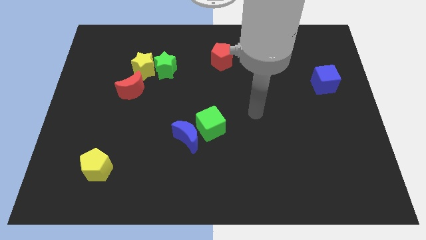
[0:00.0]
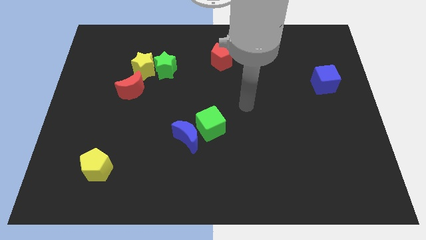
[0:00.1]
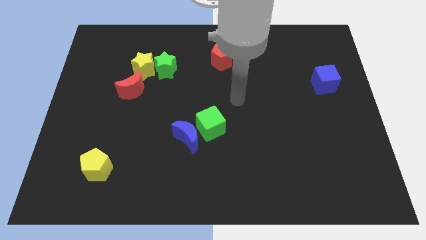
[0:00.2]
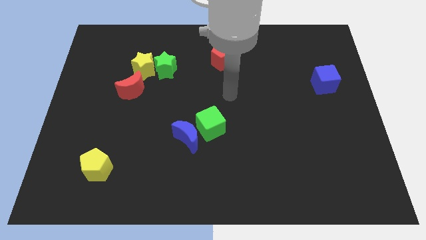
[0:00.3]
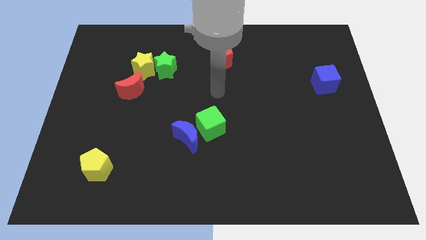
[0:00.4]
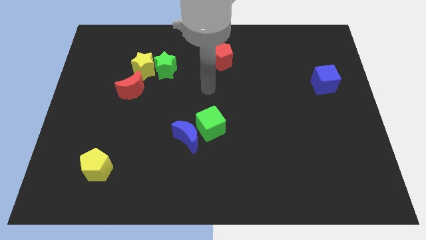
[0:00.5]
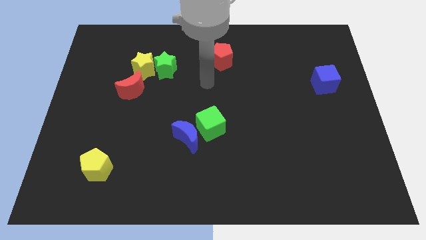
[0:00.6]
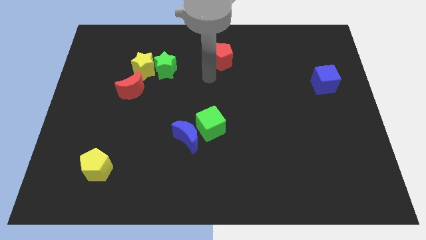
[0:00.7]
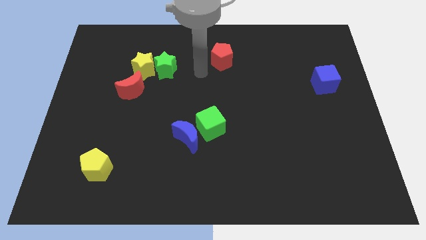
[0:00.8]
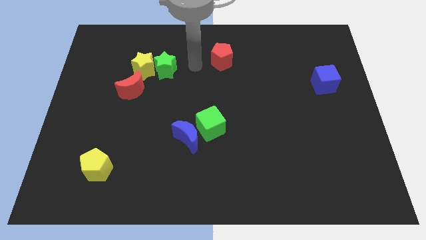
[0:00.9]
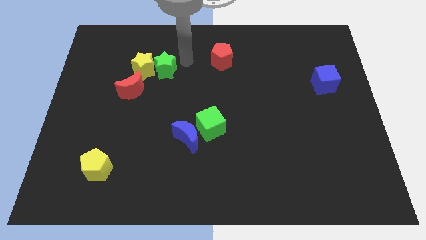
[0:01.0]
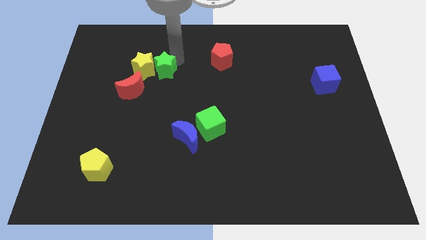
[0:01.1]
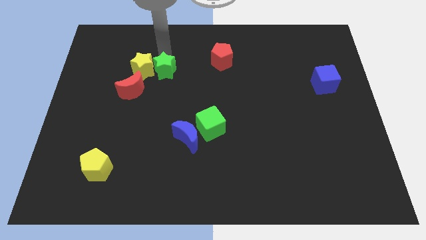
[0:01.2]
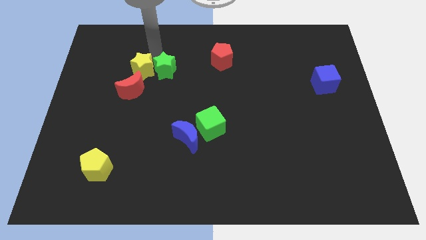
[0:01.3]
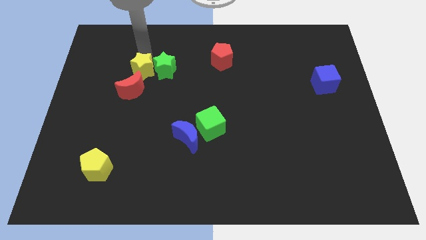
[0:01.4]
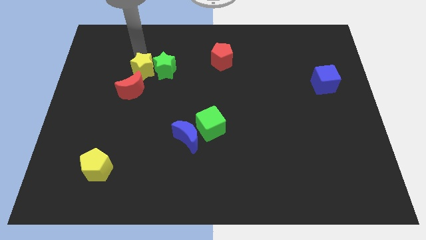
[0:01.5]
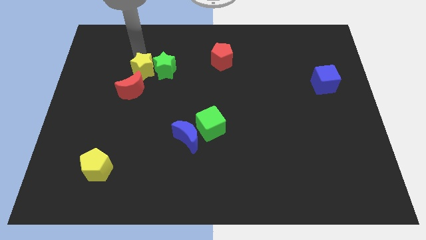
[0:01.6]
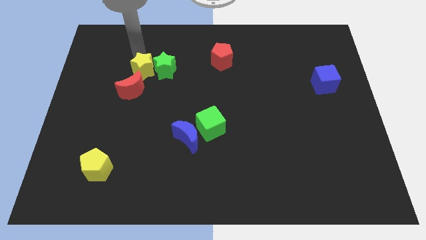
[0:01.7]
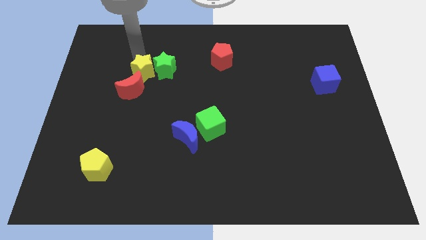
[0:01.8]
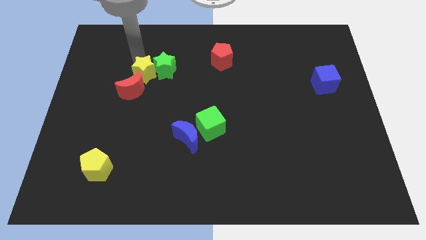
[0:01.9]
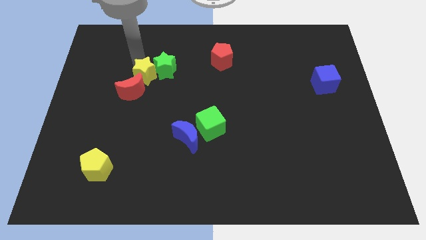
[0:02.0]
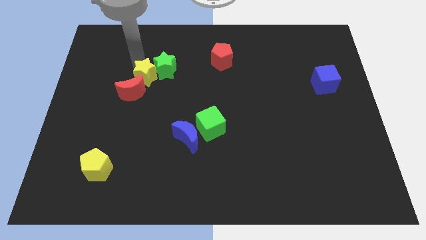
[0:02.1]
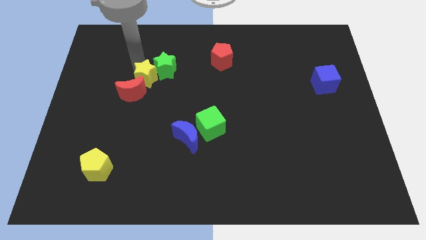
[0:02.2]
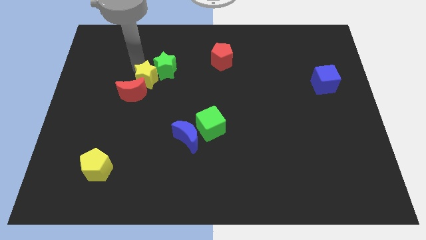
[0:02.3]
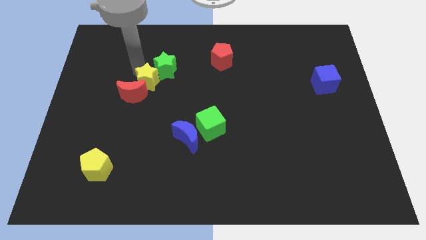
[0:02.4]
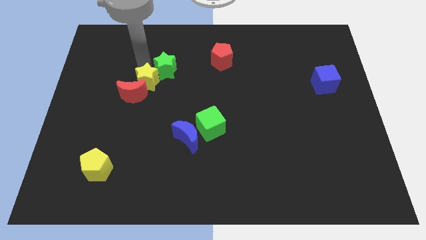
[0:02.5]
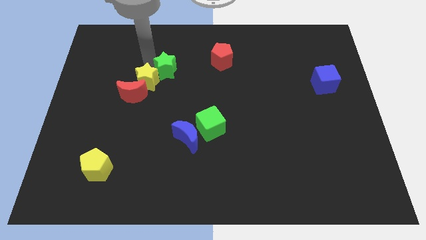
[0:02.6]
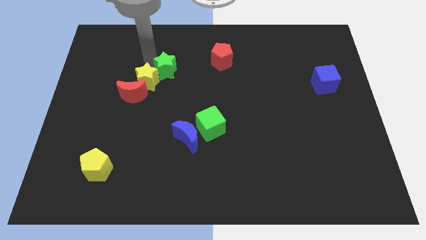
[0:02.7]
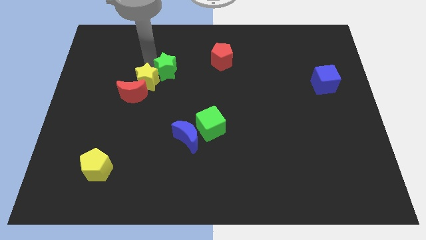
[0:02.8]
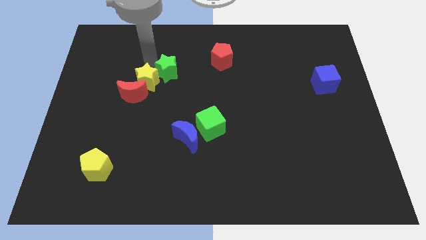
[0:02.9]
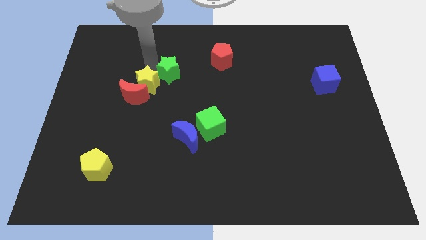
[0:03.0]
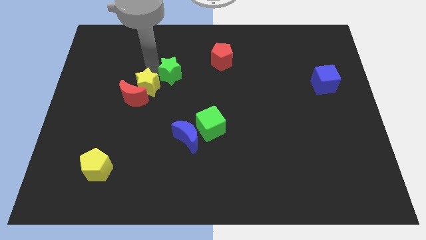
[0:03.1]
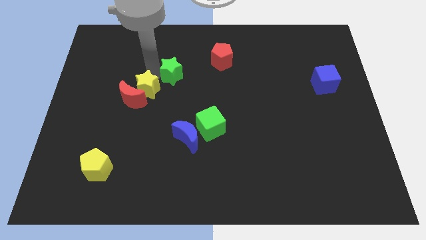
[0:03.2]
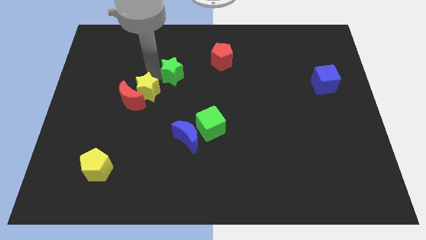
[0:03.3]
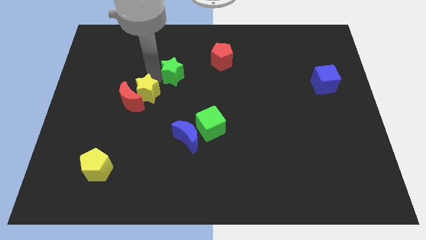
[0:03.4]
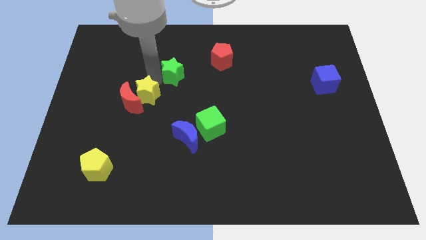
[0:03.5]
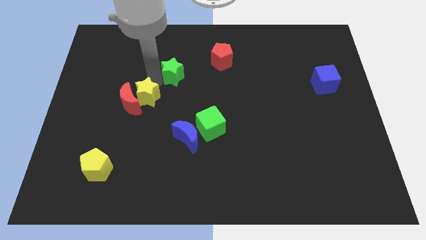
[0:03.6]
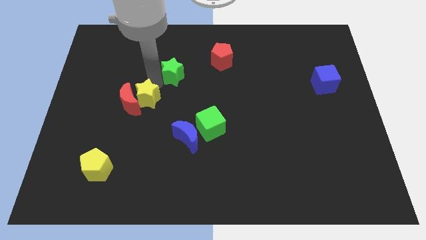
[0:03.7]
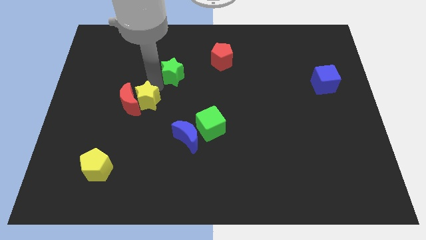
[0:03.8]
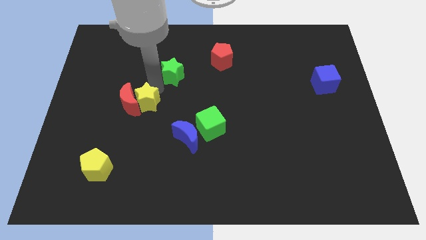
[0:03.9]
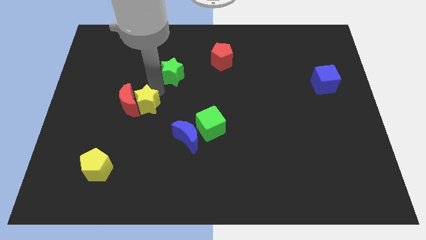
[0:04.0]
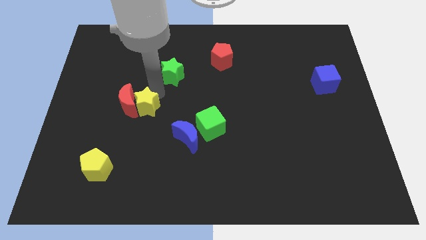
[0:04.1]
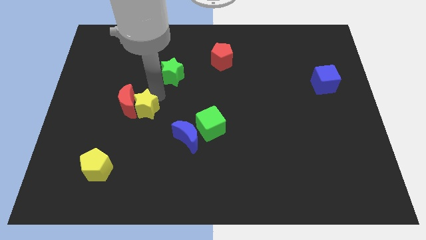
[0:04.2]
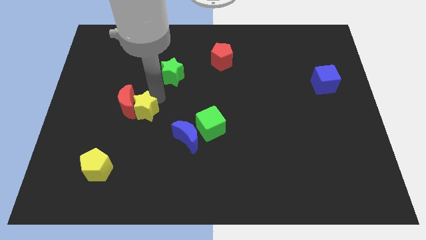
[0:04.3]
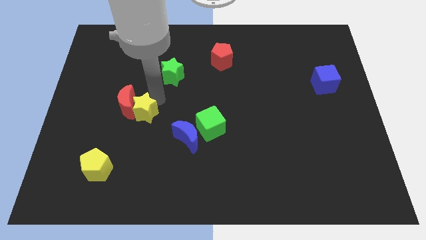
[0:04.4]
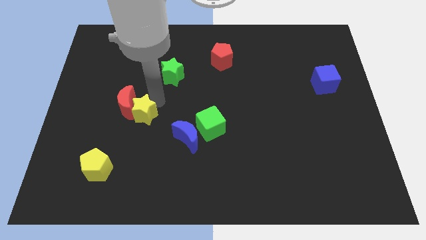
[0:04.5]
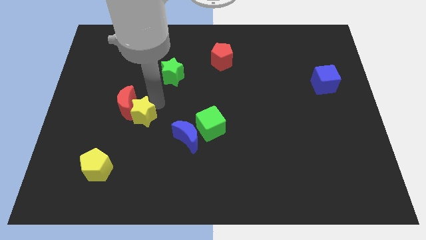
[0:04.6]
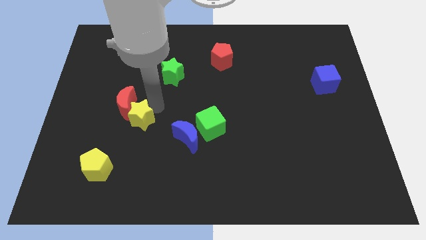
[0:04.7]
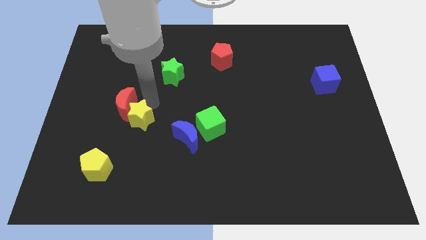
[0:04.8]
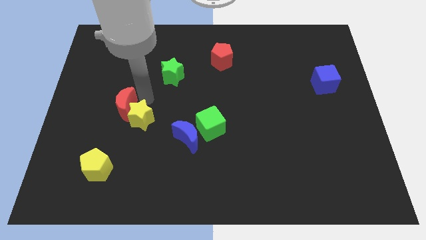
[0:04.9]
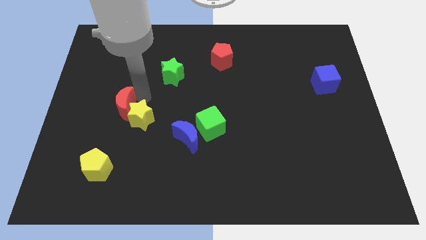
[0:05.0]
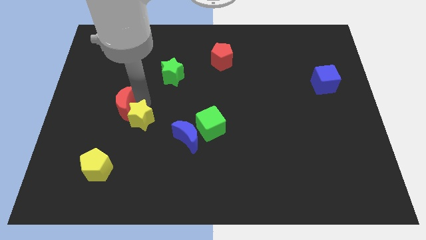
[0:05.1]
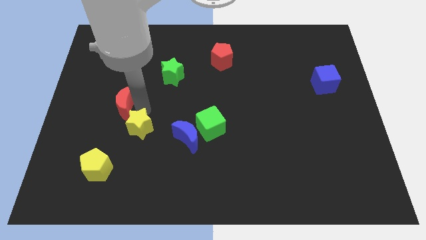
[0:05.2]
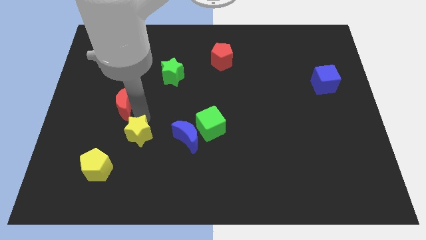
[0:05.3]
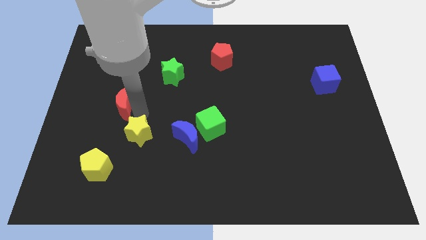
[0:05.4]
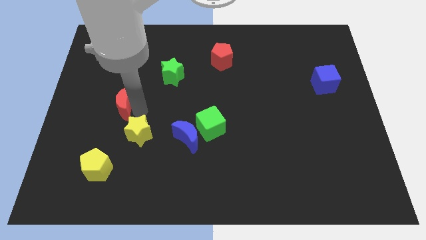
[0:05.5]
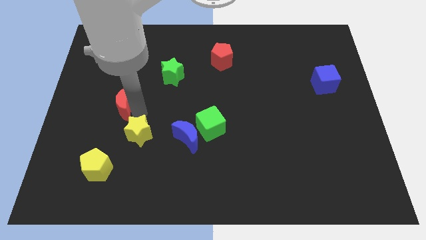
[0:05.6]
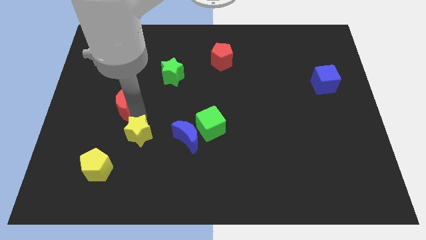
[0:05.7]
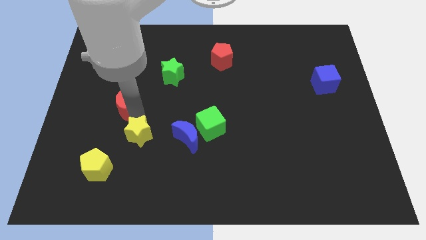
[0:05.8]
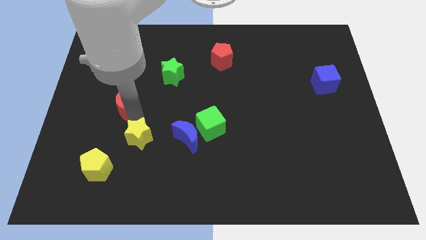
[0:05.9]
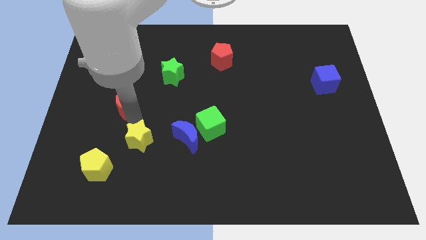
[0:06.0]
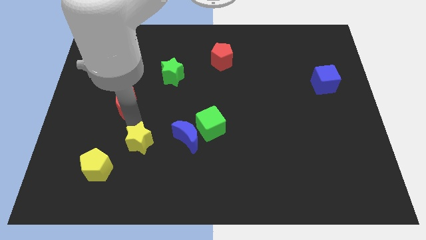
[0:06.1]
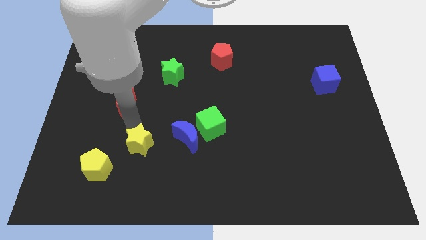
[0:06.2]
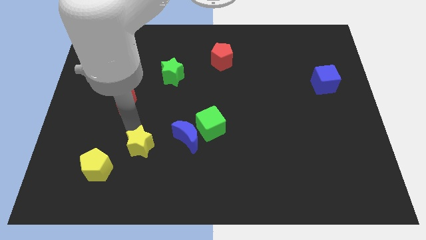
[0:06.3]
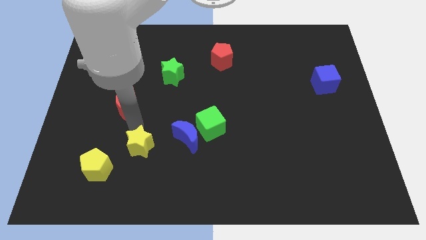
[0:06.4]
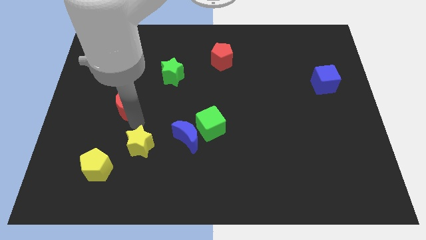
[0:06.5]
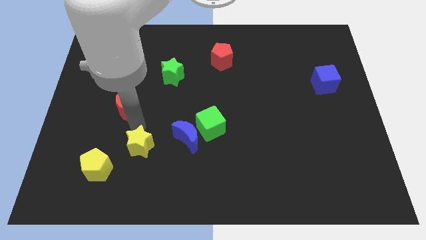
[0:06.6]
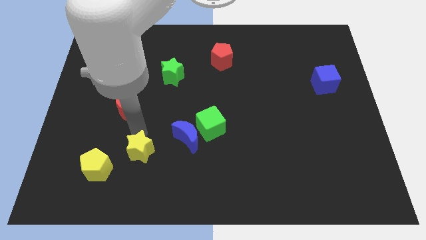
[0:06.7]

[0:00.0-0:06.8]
move the yellow star to the right side of the yellow pentagon

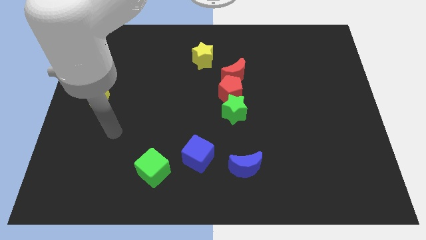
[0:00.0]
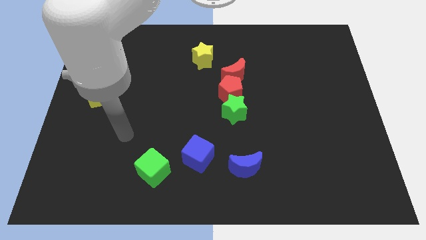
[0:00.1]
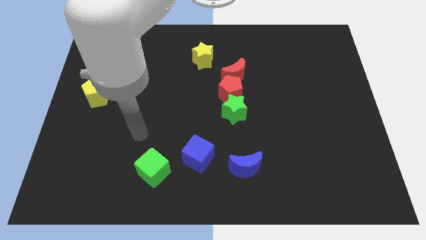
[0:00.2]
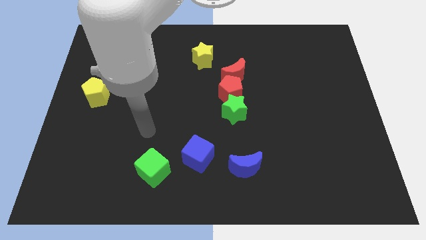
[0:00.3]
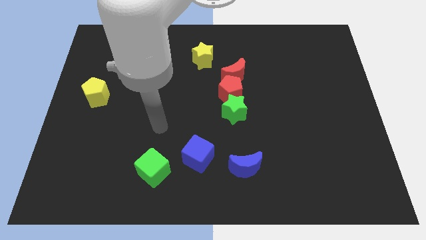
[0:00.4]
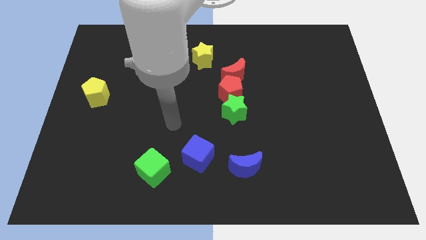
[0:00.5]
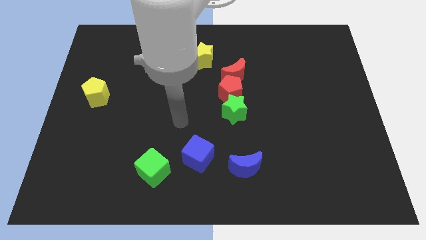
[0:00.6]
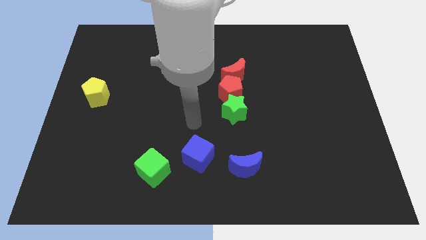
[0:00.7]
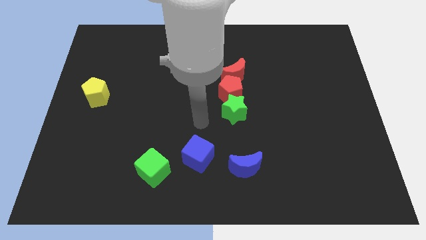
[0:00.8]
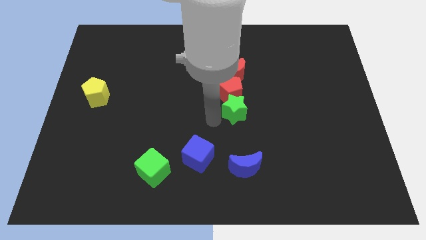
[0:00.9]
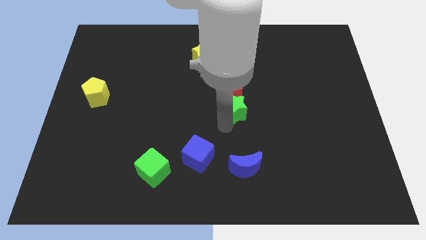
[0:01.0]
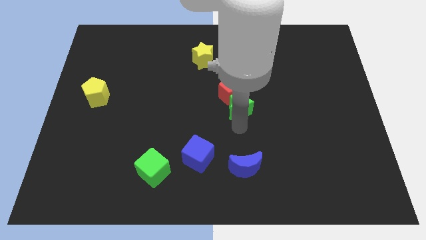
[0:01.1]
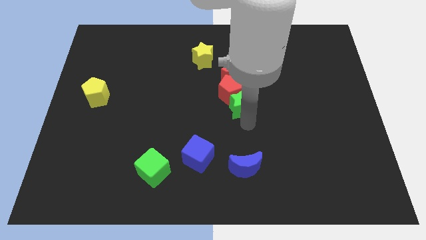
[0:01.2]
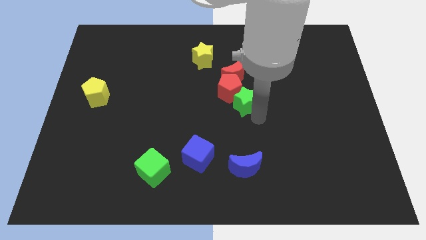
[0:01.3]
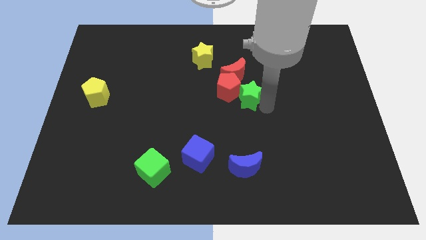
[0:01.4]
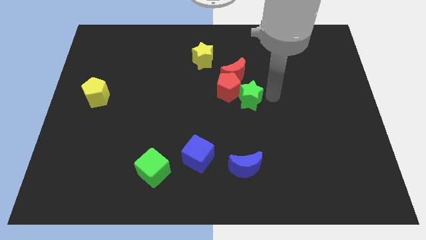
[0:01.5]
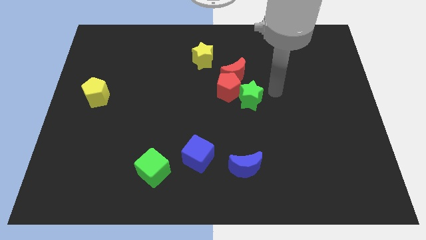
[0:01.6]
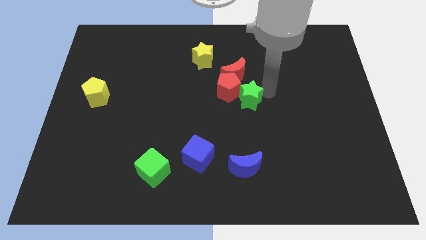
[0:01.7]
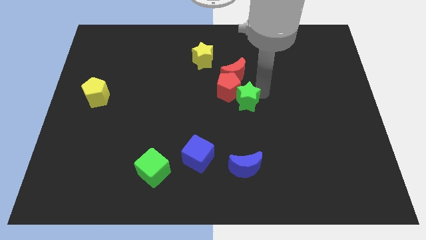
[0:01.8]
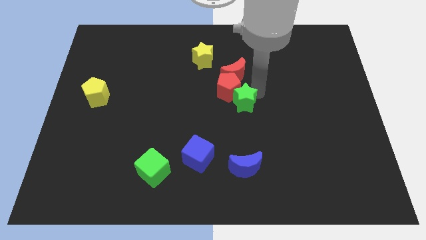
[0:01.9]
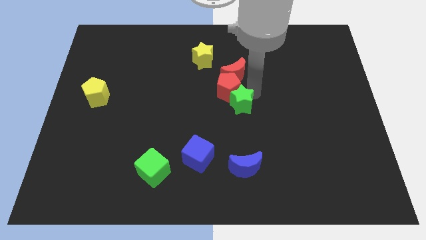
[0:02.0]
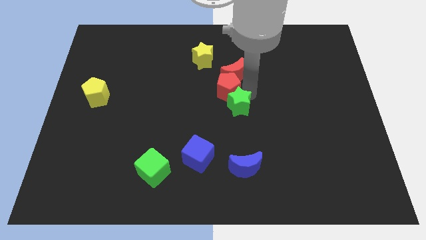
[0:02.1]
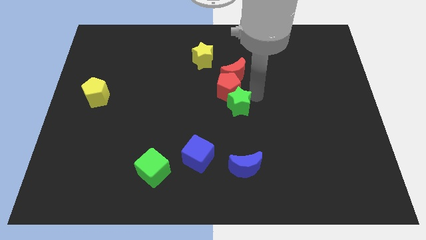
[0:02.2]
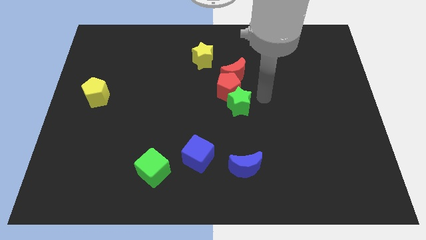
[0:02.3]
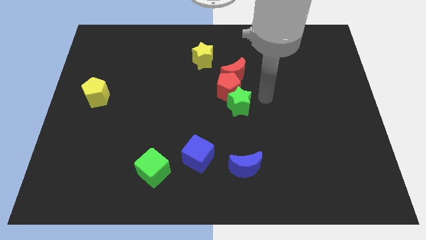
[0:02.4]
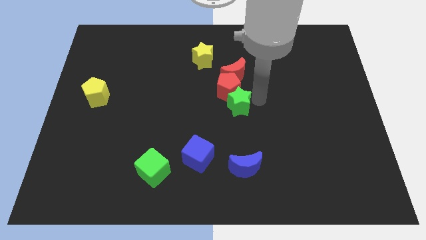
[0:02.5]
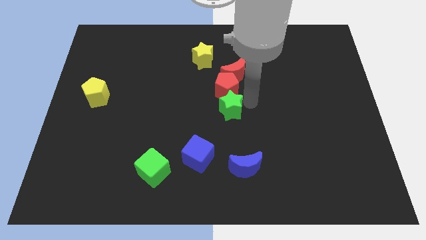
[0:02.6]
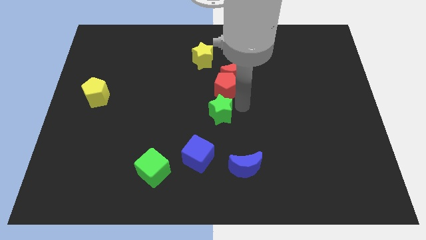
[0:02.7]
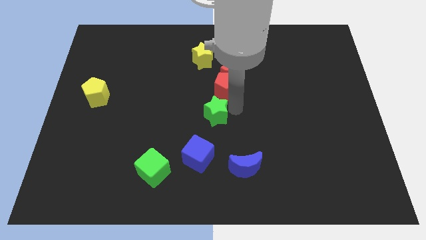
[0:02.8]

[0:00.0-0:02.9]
move the green star to the top side of the blue cube
